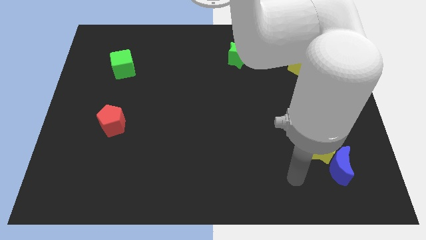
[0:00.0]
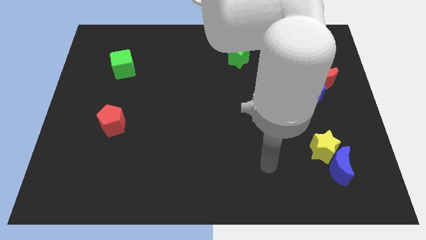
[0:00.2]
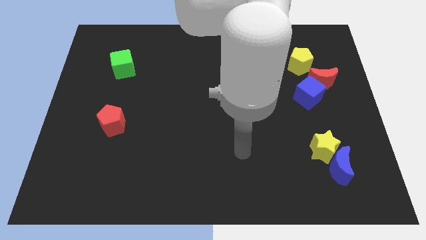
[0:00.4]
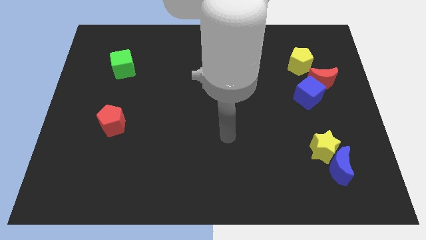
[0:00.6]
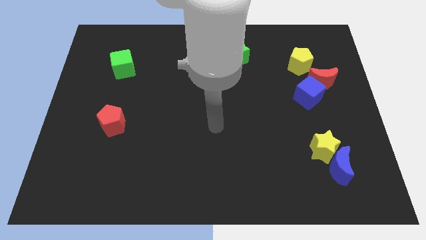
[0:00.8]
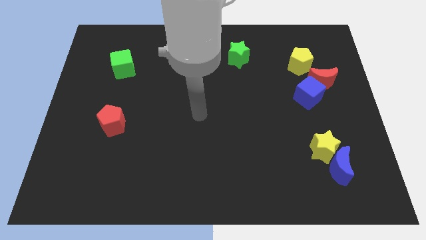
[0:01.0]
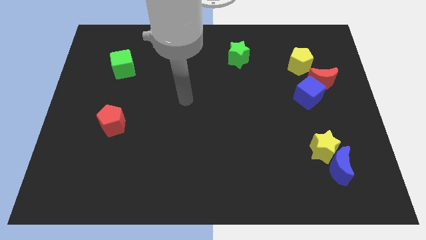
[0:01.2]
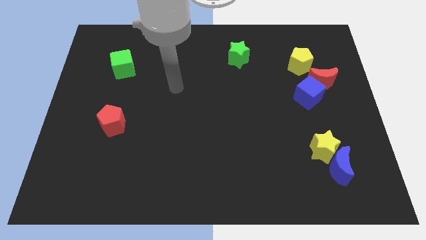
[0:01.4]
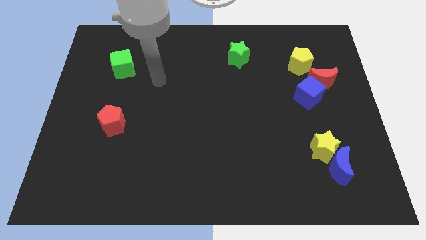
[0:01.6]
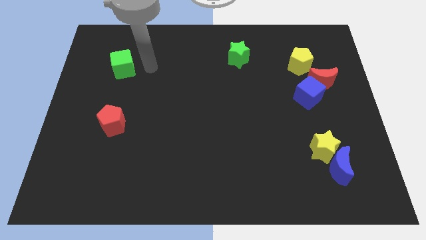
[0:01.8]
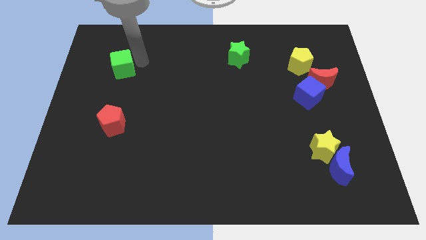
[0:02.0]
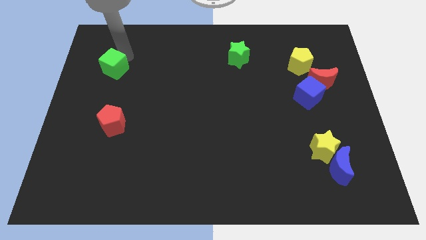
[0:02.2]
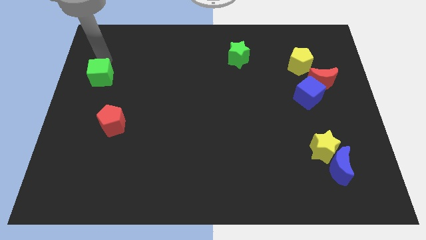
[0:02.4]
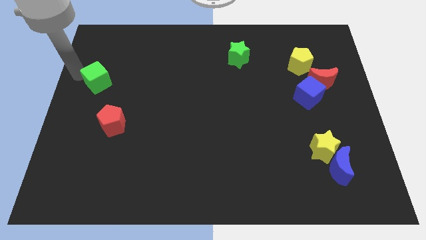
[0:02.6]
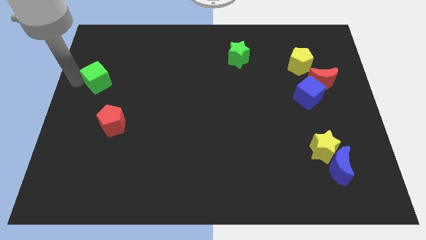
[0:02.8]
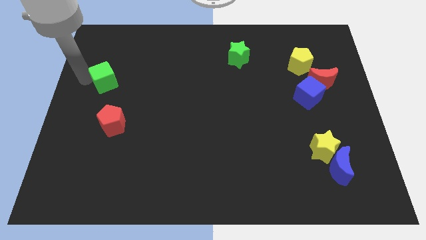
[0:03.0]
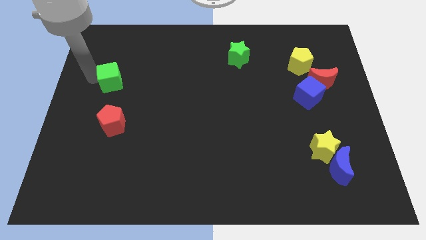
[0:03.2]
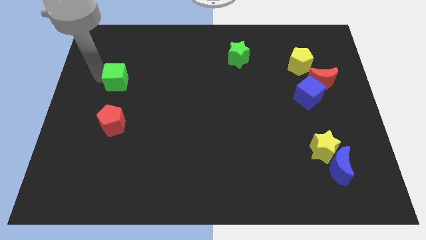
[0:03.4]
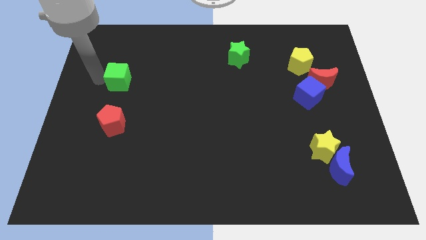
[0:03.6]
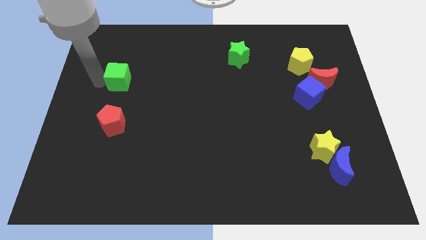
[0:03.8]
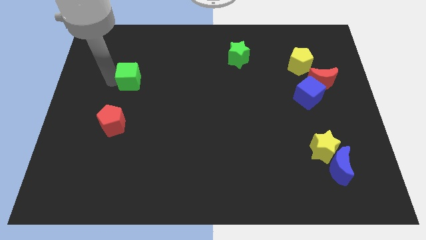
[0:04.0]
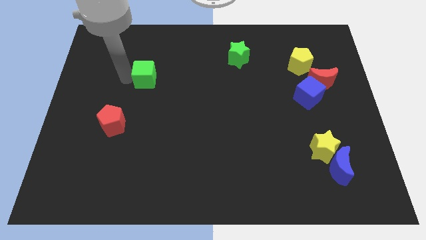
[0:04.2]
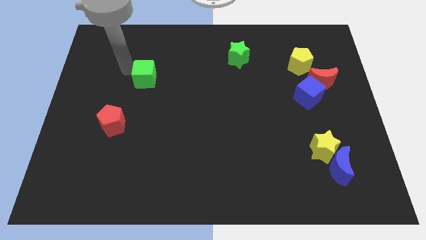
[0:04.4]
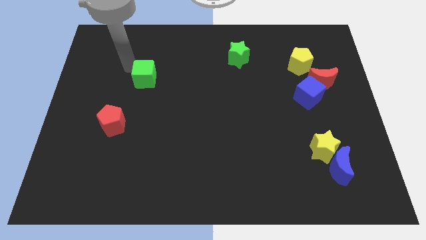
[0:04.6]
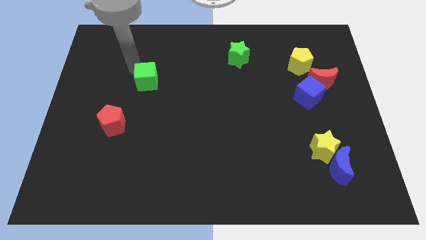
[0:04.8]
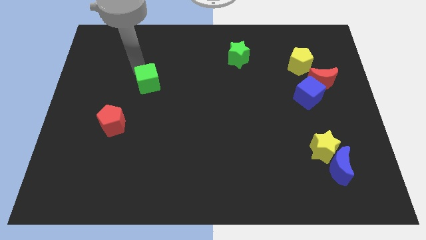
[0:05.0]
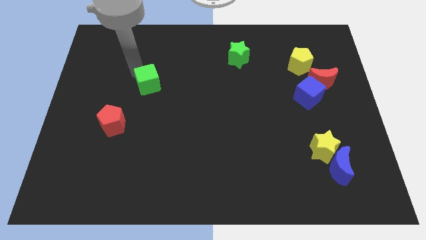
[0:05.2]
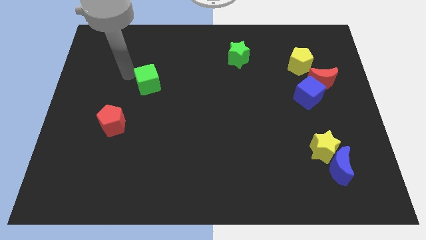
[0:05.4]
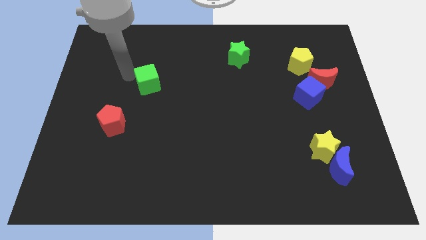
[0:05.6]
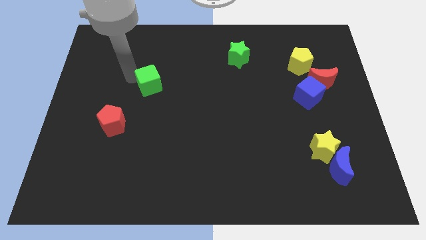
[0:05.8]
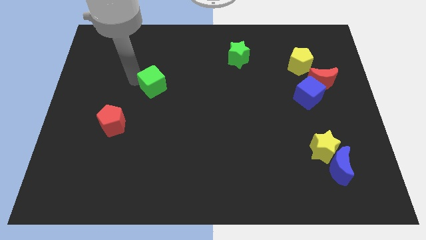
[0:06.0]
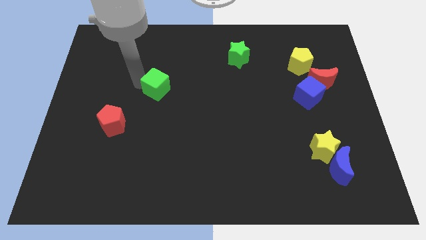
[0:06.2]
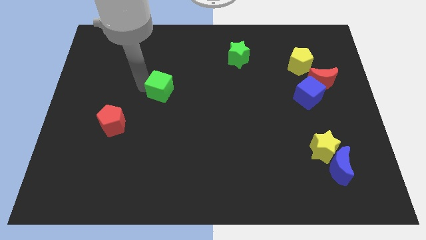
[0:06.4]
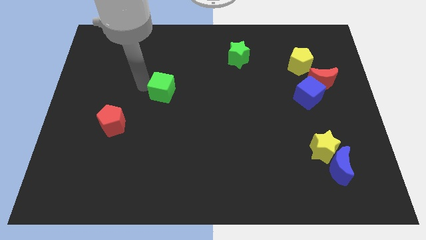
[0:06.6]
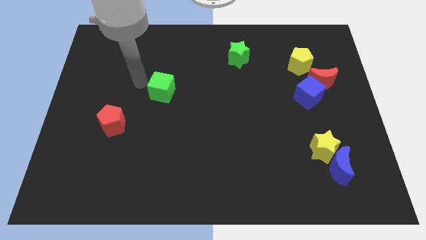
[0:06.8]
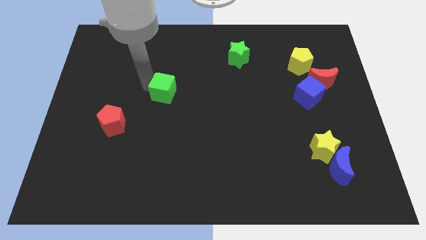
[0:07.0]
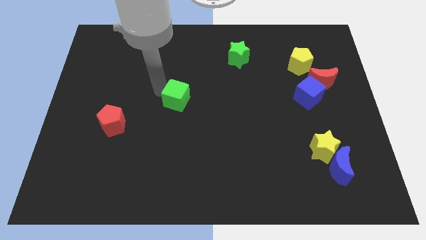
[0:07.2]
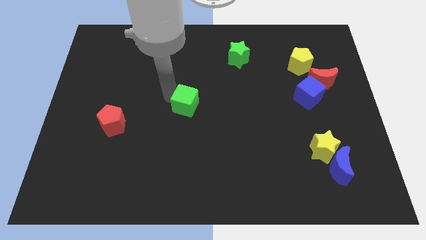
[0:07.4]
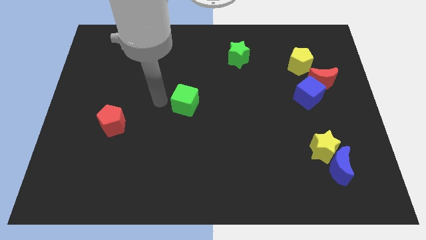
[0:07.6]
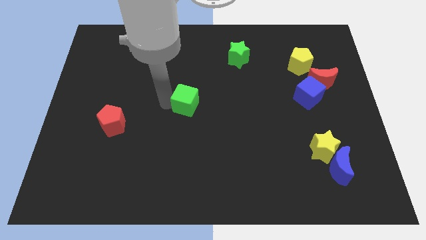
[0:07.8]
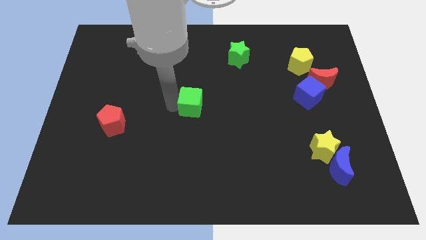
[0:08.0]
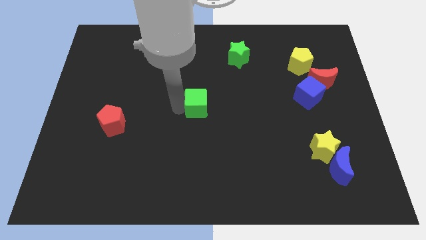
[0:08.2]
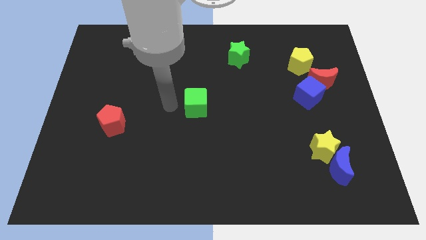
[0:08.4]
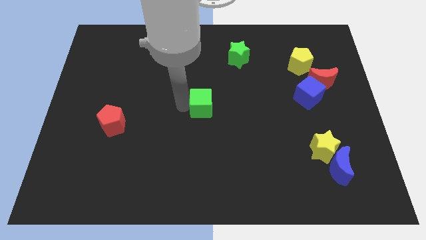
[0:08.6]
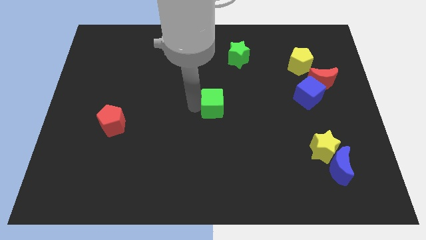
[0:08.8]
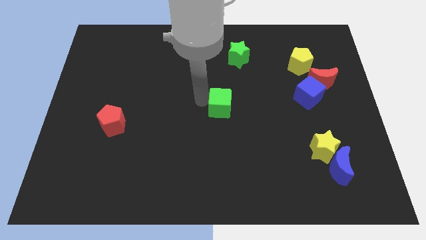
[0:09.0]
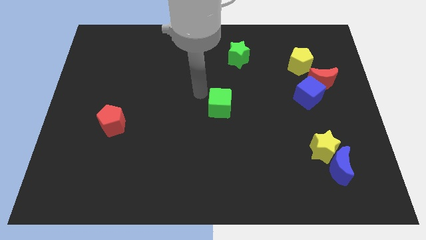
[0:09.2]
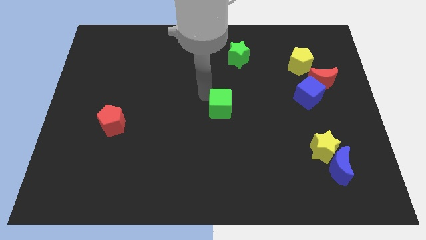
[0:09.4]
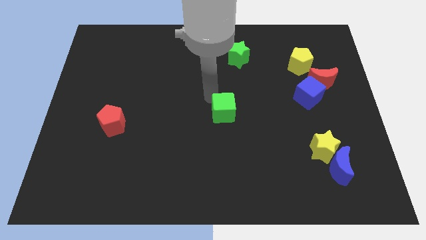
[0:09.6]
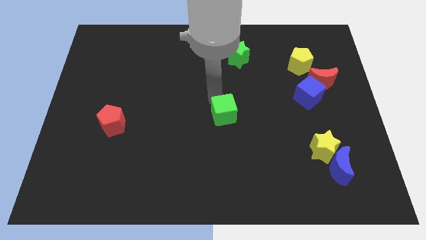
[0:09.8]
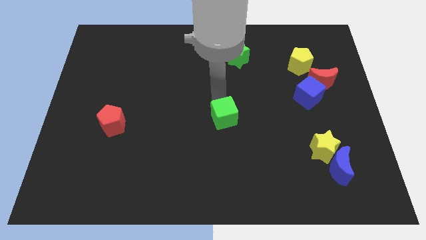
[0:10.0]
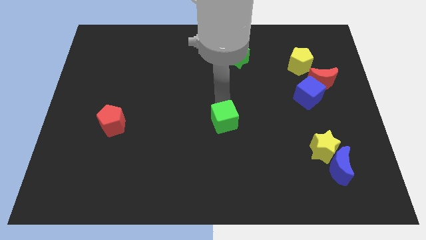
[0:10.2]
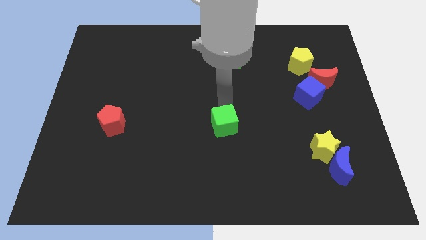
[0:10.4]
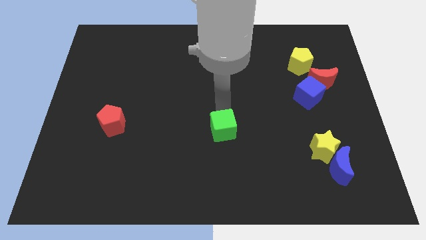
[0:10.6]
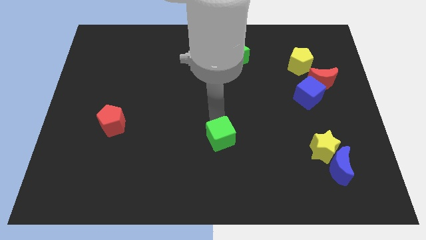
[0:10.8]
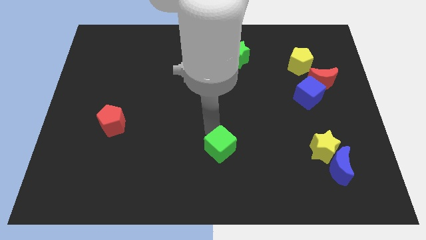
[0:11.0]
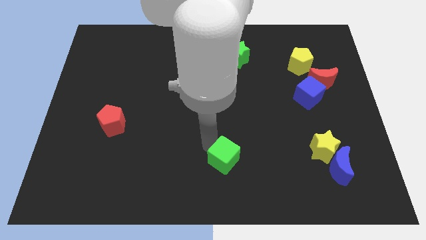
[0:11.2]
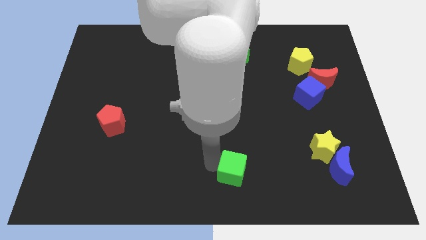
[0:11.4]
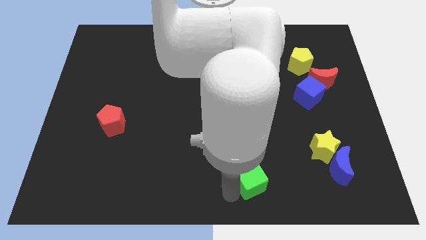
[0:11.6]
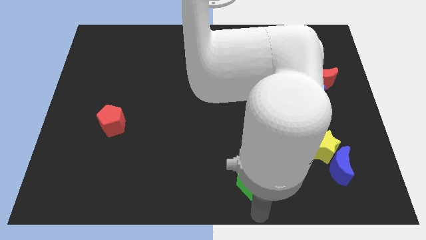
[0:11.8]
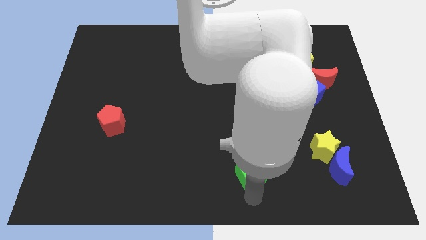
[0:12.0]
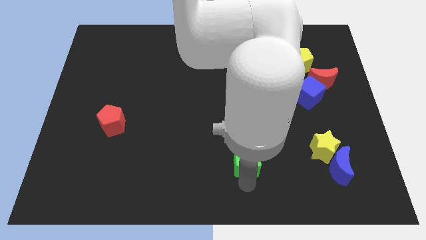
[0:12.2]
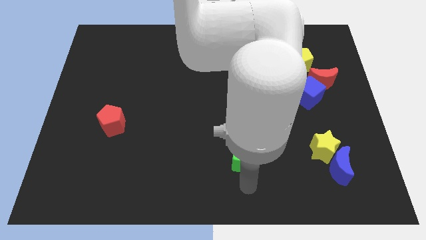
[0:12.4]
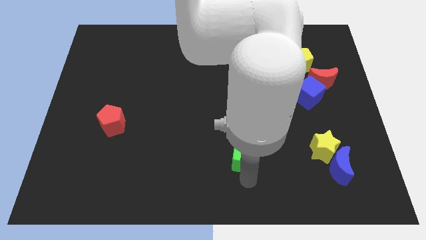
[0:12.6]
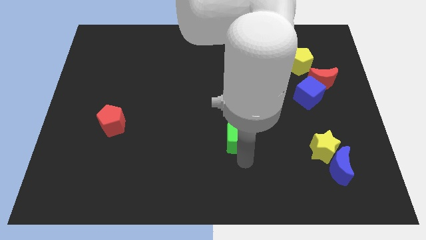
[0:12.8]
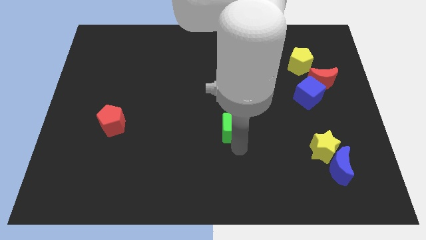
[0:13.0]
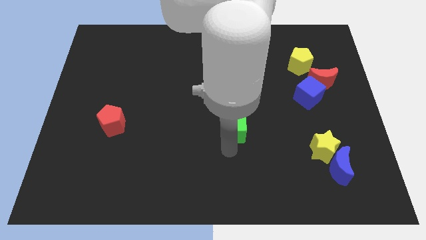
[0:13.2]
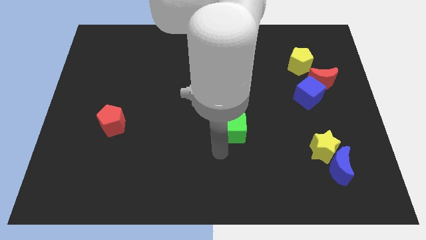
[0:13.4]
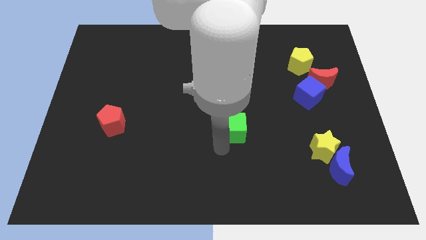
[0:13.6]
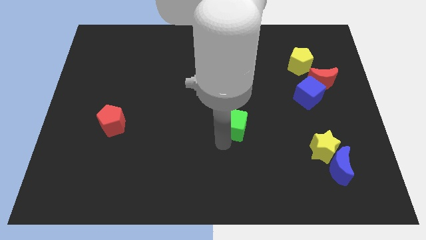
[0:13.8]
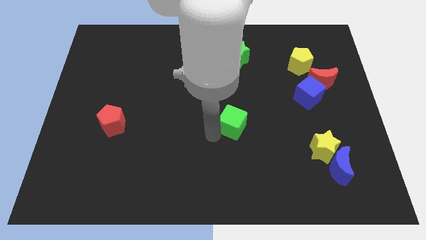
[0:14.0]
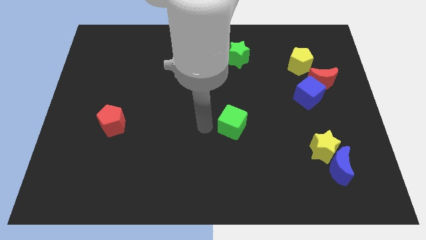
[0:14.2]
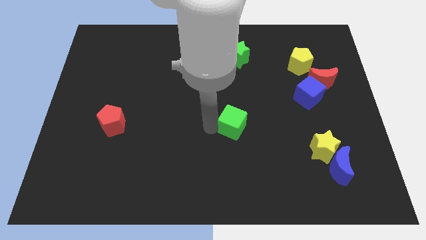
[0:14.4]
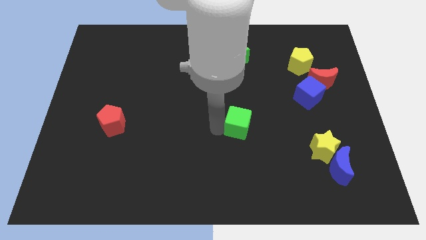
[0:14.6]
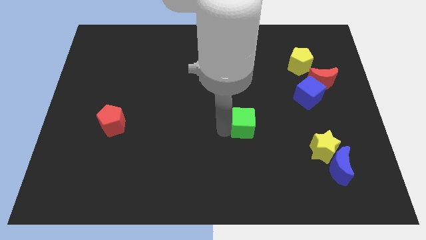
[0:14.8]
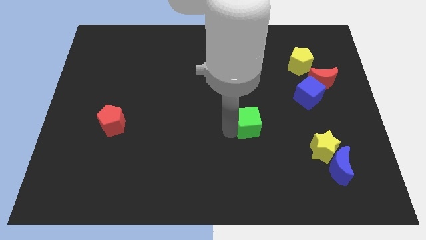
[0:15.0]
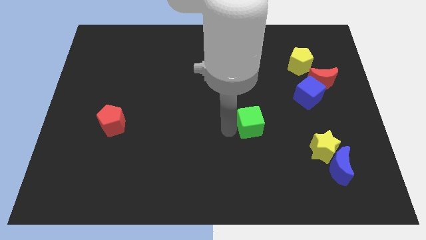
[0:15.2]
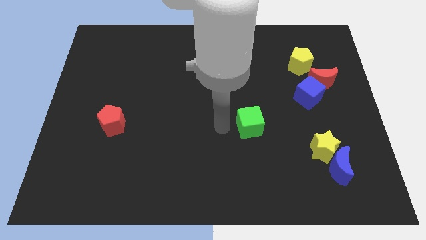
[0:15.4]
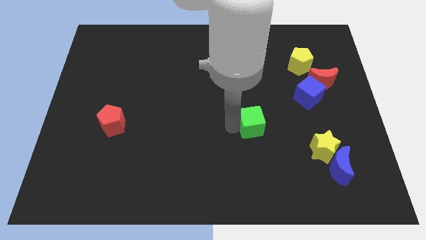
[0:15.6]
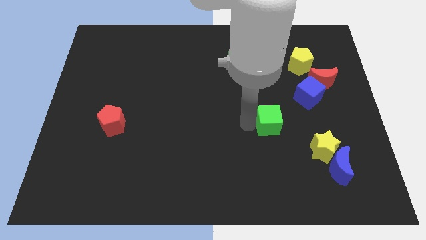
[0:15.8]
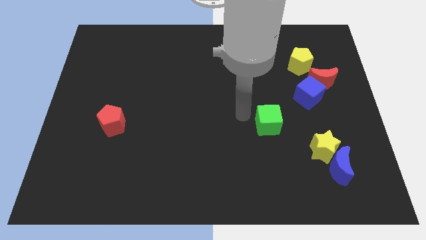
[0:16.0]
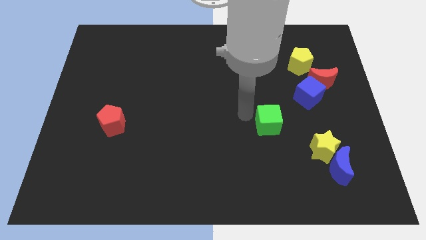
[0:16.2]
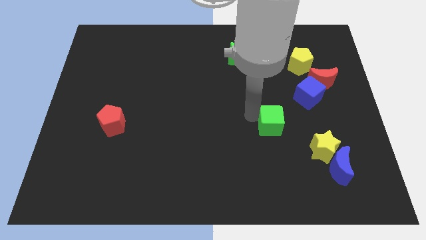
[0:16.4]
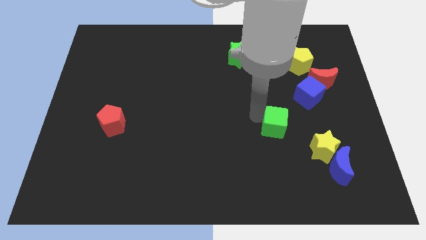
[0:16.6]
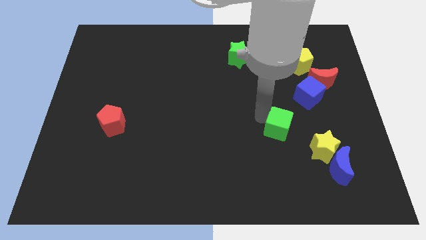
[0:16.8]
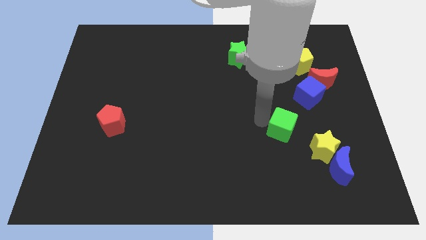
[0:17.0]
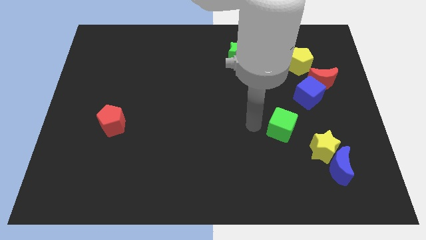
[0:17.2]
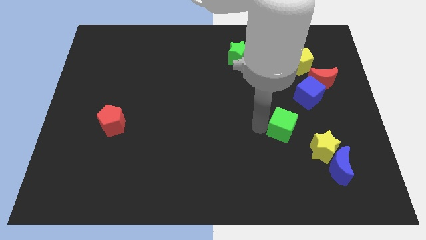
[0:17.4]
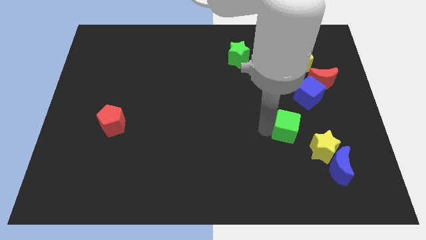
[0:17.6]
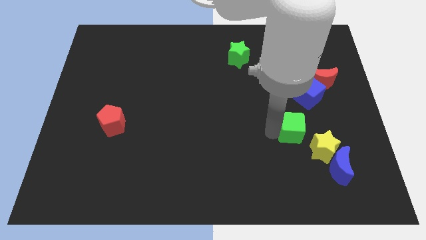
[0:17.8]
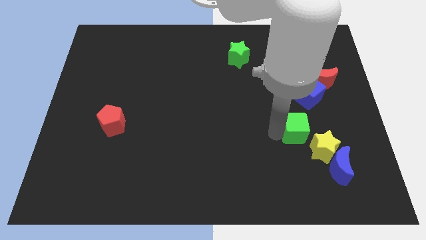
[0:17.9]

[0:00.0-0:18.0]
move the green cube to the bottom side of the blue cube
